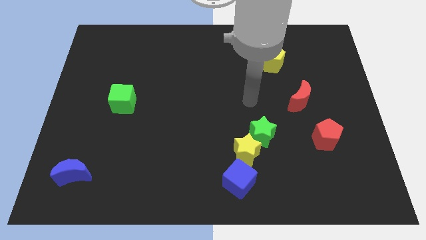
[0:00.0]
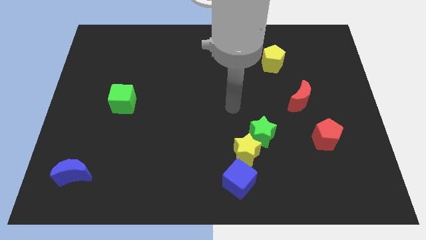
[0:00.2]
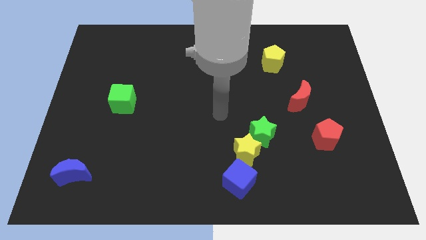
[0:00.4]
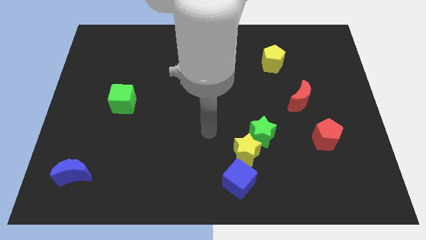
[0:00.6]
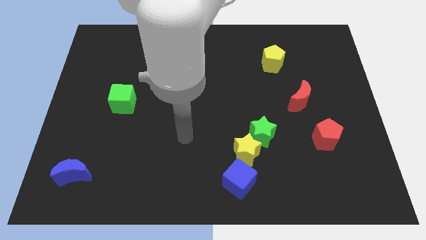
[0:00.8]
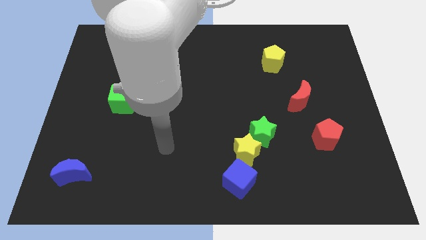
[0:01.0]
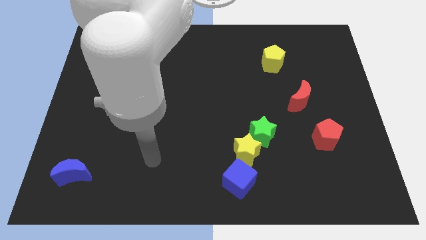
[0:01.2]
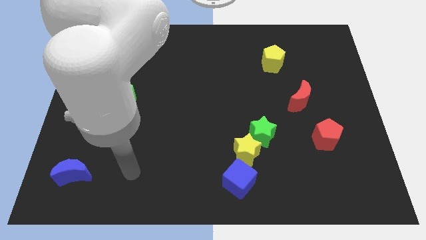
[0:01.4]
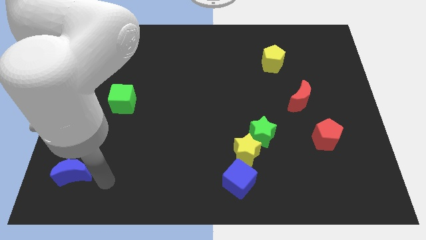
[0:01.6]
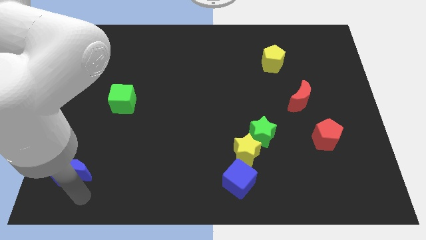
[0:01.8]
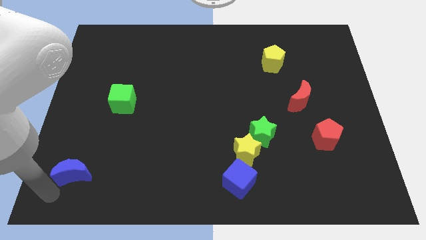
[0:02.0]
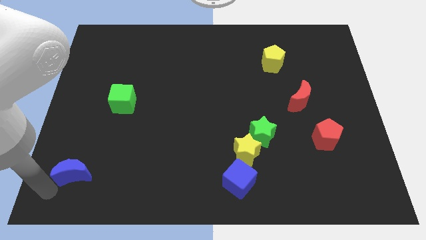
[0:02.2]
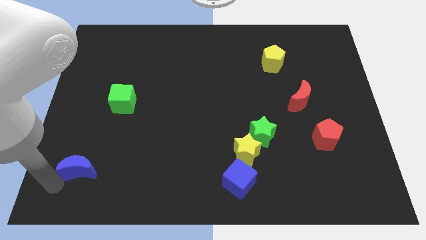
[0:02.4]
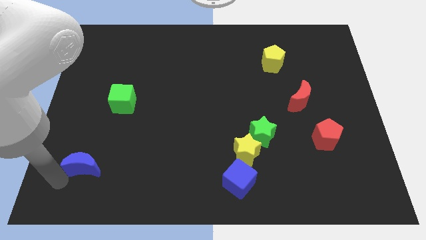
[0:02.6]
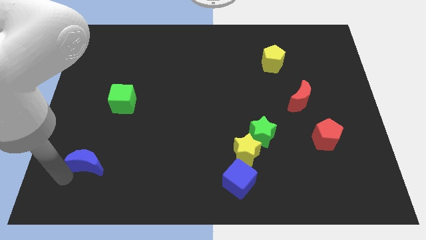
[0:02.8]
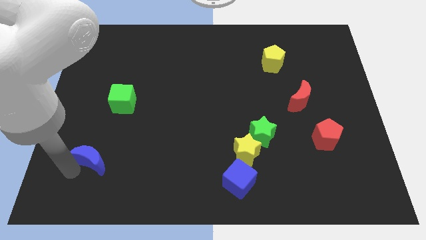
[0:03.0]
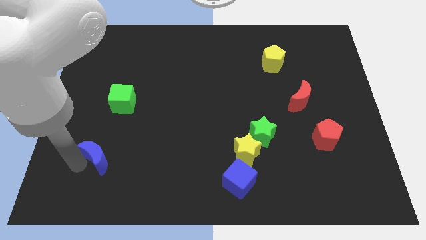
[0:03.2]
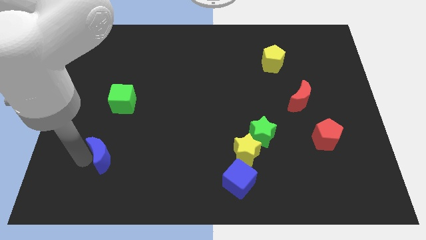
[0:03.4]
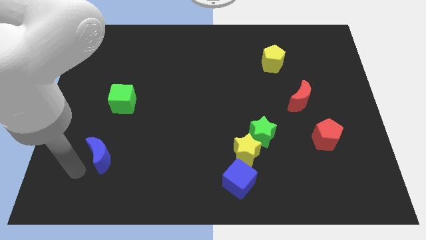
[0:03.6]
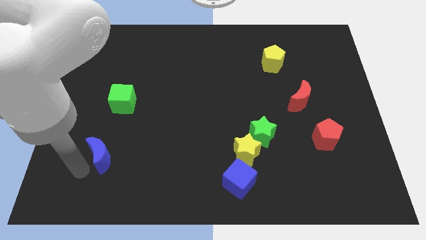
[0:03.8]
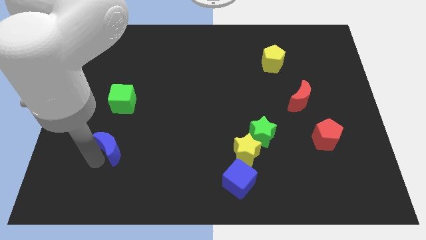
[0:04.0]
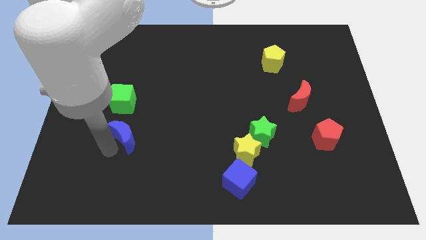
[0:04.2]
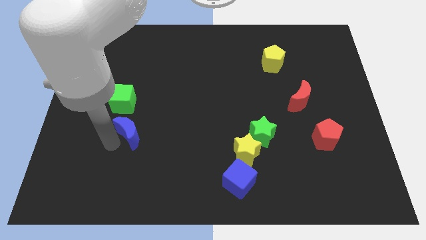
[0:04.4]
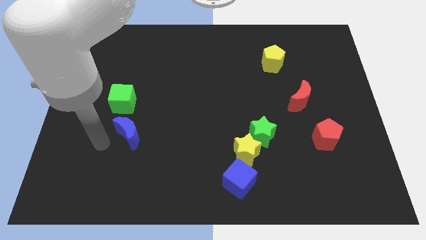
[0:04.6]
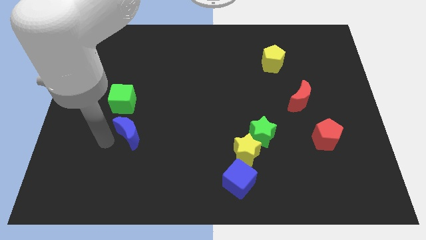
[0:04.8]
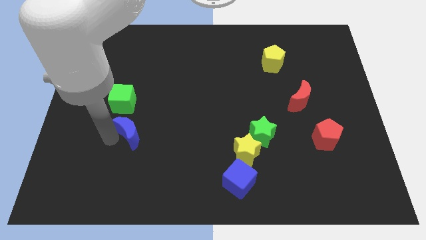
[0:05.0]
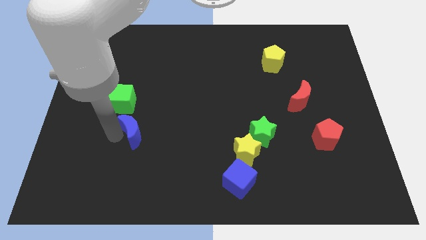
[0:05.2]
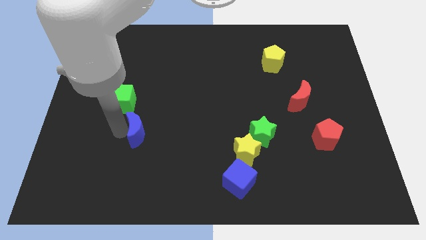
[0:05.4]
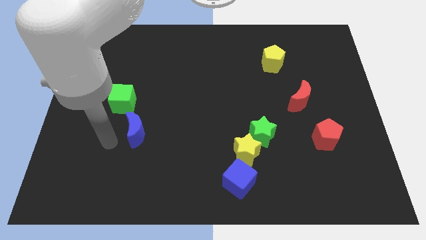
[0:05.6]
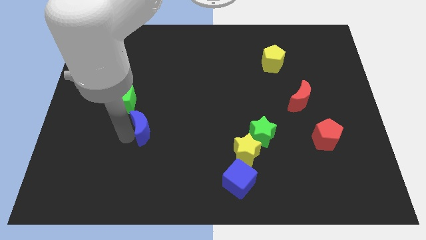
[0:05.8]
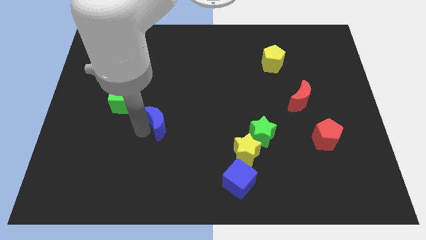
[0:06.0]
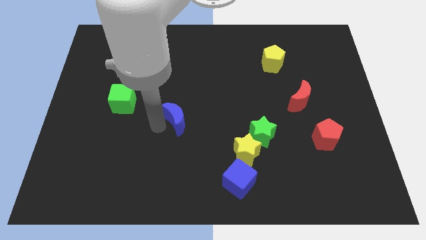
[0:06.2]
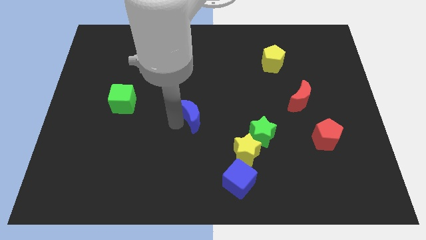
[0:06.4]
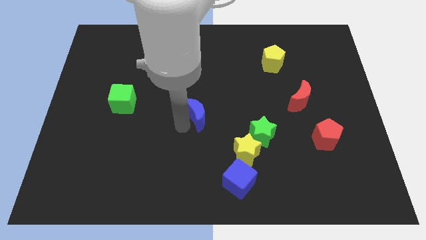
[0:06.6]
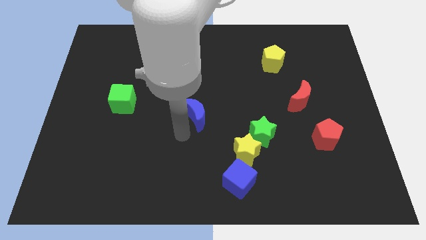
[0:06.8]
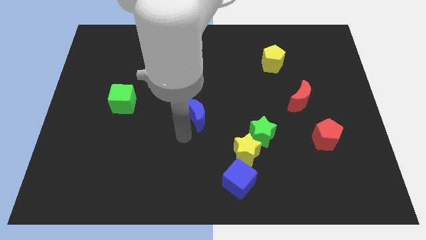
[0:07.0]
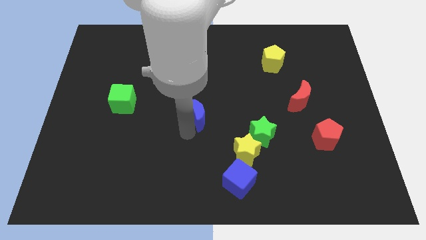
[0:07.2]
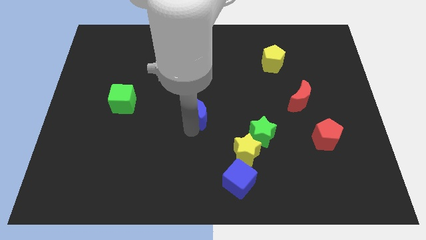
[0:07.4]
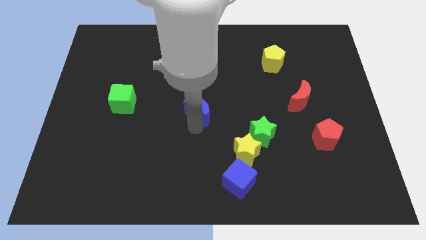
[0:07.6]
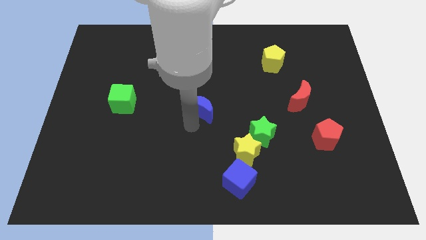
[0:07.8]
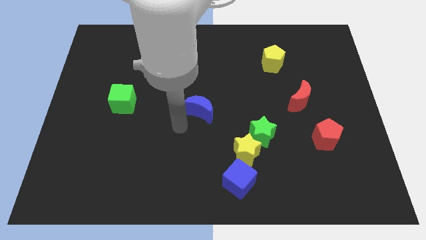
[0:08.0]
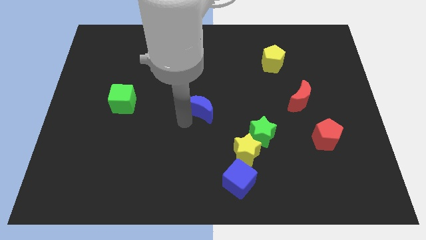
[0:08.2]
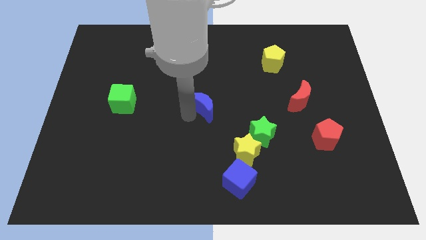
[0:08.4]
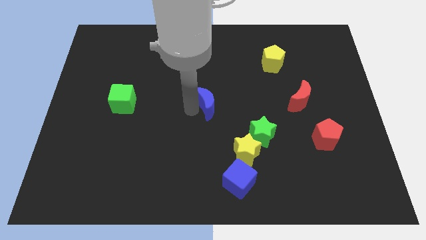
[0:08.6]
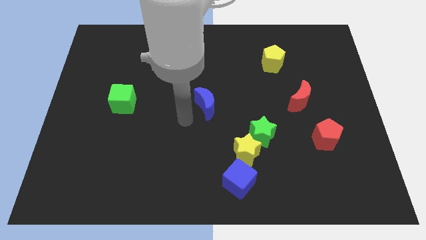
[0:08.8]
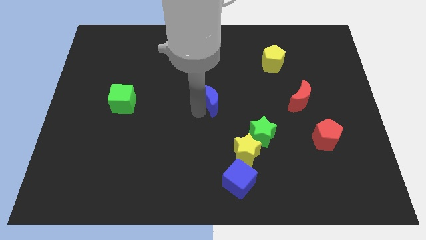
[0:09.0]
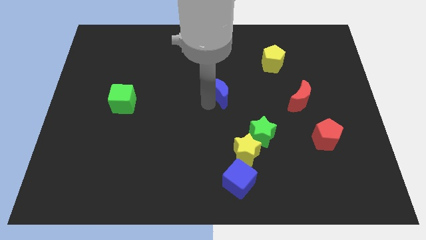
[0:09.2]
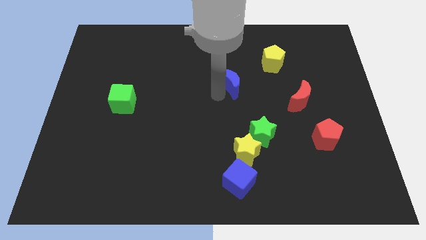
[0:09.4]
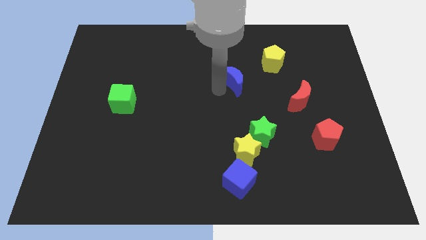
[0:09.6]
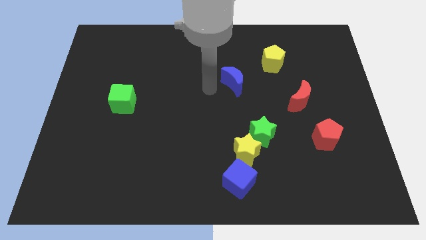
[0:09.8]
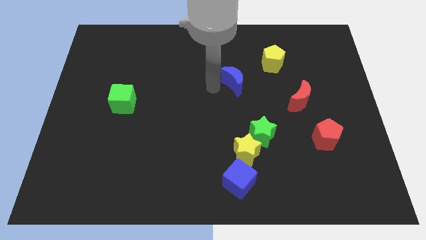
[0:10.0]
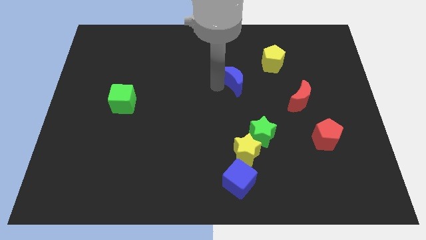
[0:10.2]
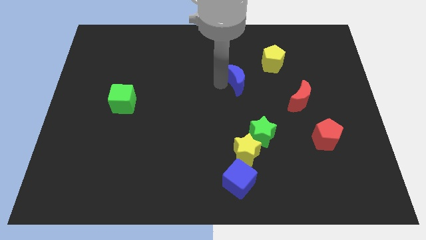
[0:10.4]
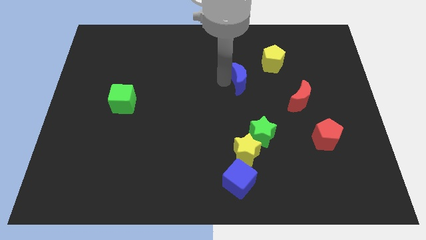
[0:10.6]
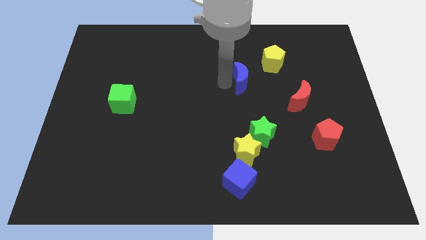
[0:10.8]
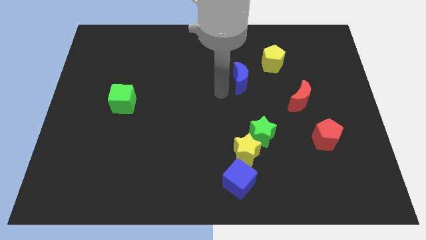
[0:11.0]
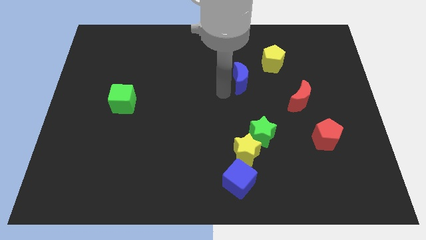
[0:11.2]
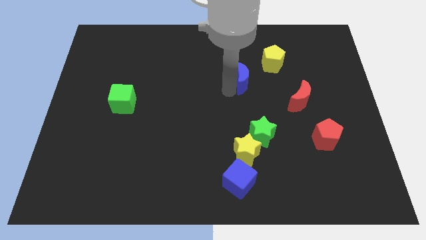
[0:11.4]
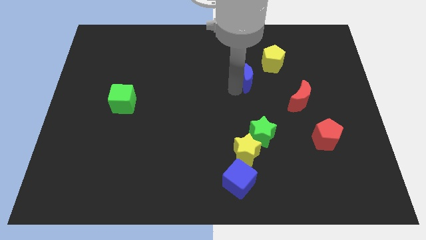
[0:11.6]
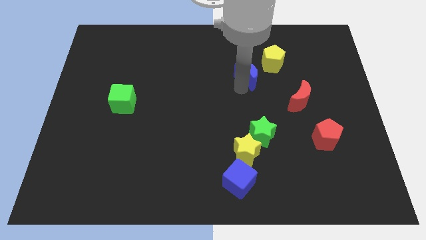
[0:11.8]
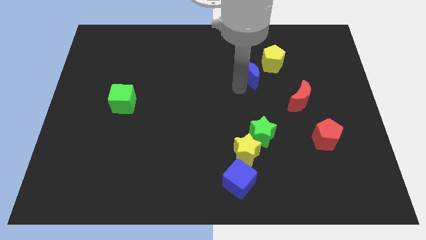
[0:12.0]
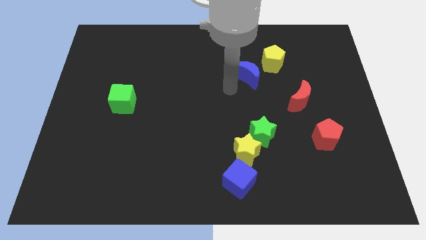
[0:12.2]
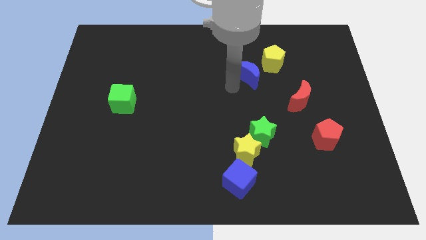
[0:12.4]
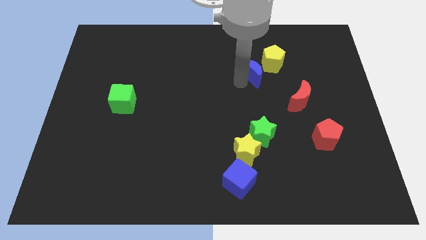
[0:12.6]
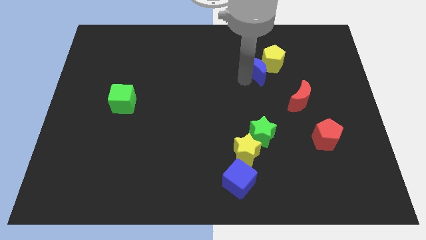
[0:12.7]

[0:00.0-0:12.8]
push the blue moon towards the yellow pentagon

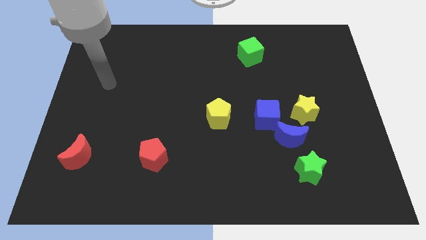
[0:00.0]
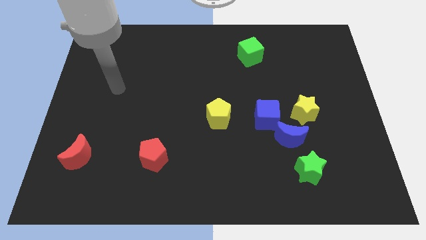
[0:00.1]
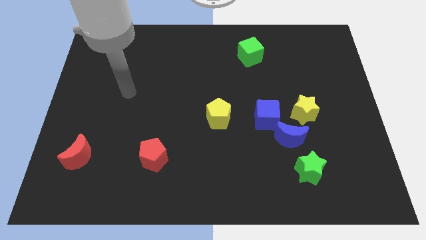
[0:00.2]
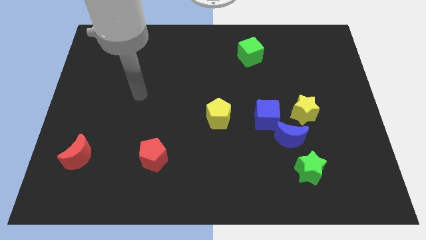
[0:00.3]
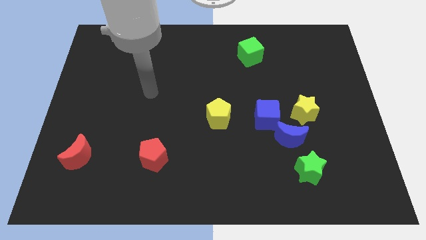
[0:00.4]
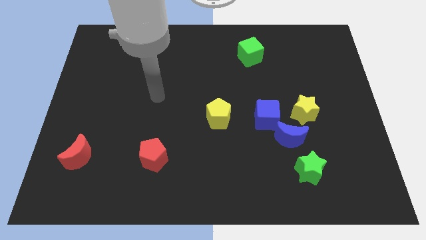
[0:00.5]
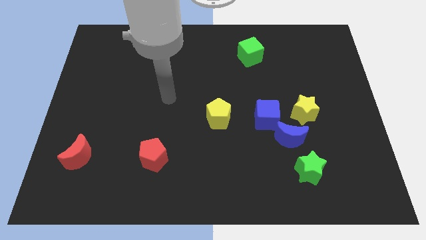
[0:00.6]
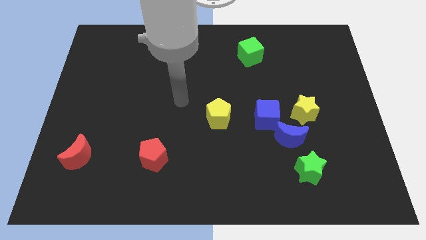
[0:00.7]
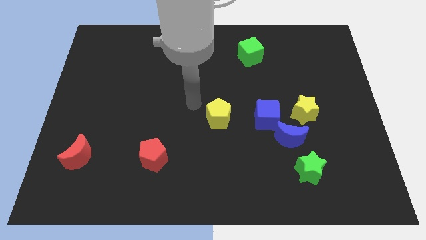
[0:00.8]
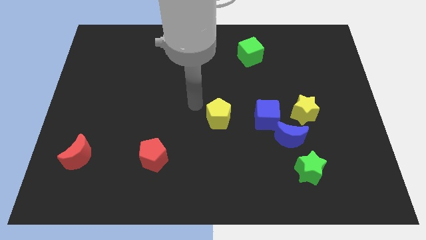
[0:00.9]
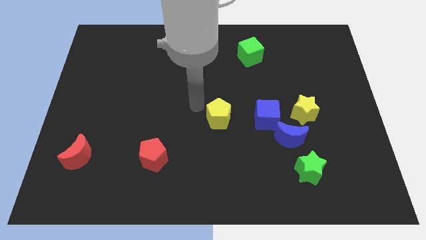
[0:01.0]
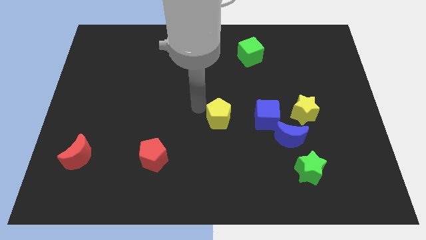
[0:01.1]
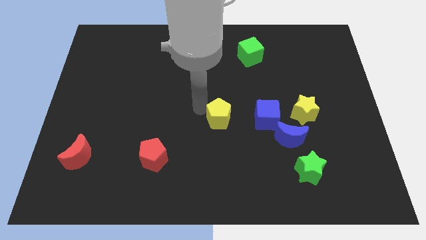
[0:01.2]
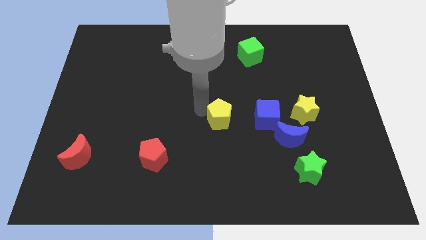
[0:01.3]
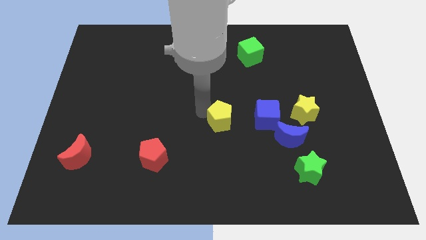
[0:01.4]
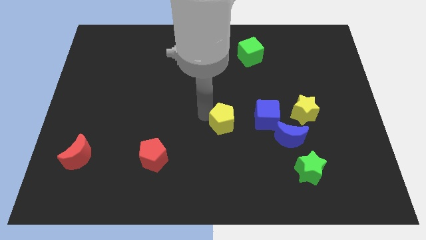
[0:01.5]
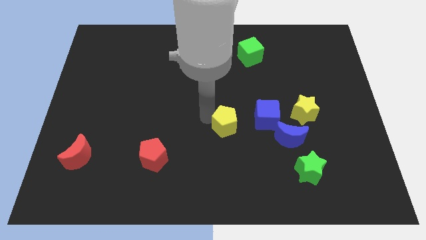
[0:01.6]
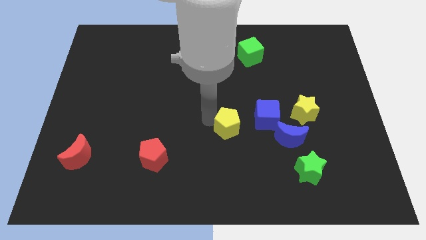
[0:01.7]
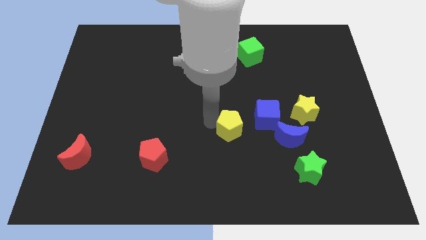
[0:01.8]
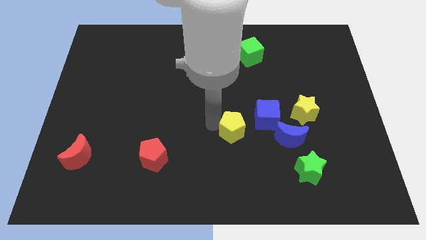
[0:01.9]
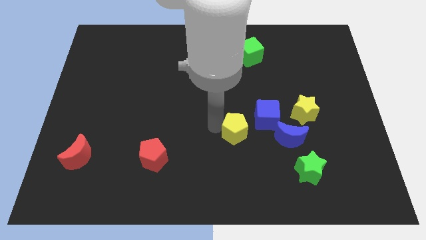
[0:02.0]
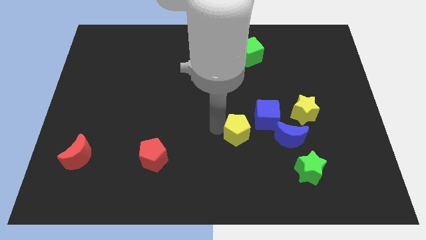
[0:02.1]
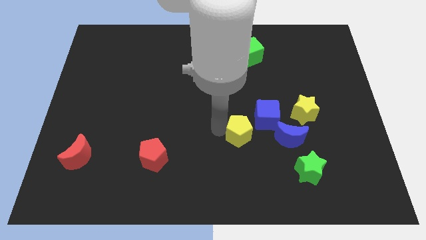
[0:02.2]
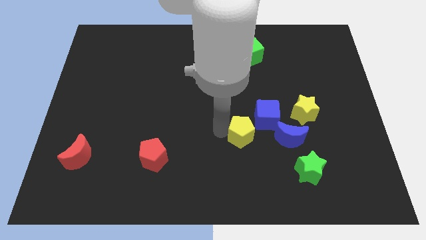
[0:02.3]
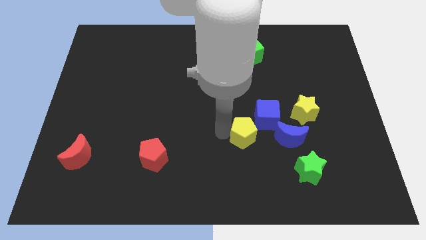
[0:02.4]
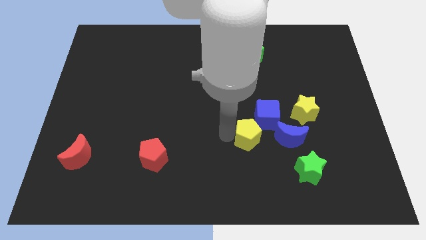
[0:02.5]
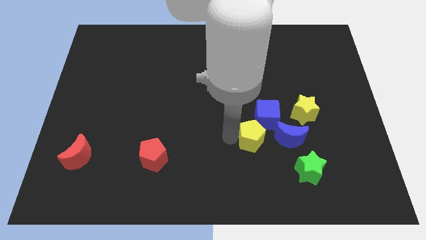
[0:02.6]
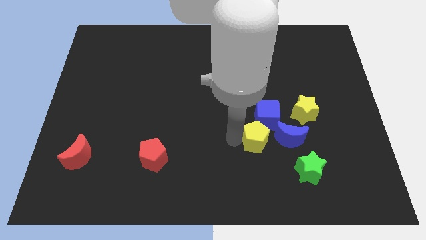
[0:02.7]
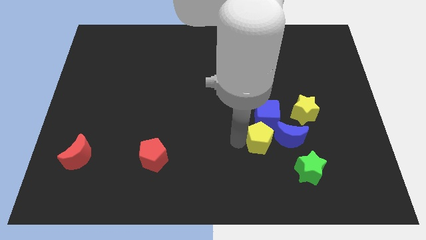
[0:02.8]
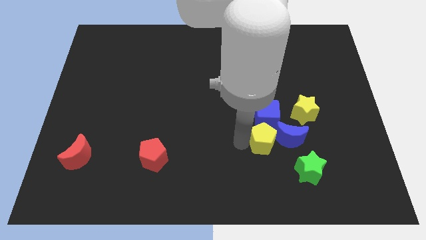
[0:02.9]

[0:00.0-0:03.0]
move the yellow pentagon next to the blue moon
